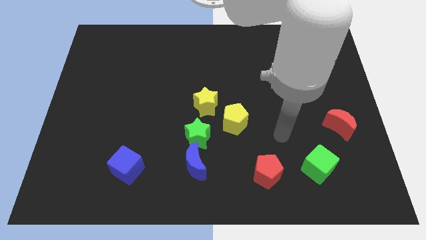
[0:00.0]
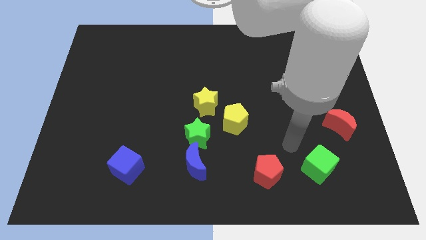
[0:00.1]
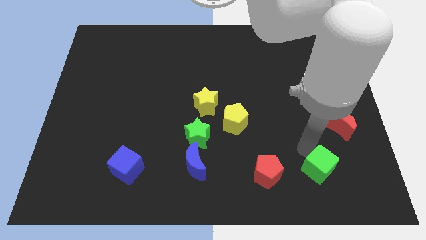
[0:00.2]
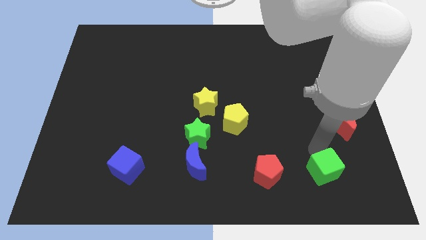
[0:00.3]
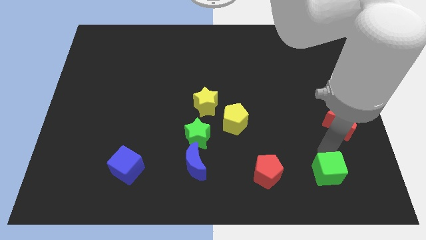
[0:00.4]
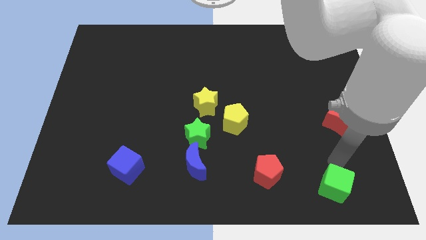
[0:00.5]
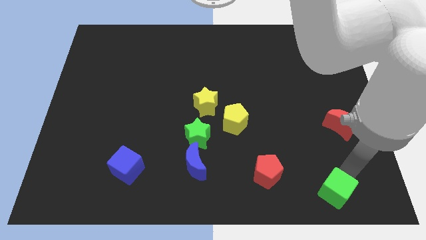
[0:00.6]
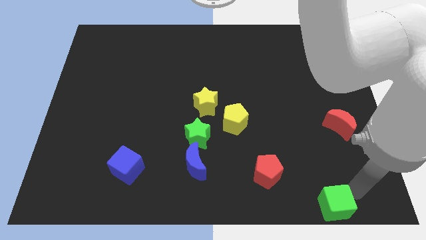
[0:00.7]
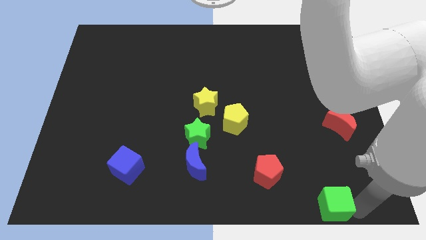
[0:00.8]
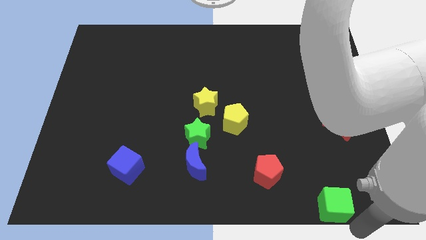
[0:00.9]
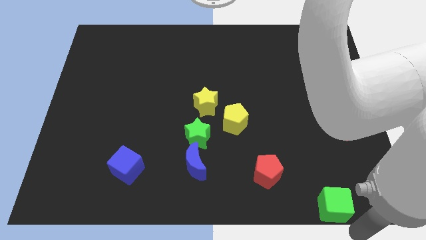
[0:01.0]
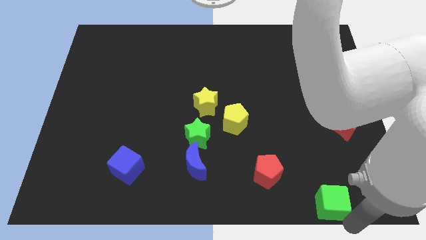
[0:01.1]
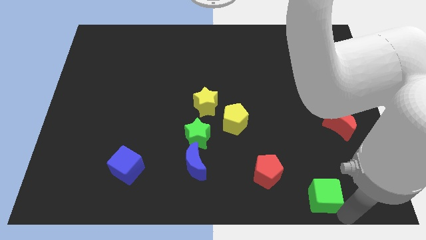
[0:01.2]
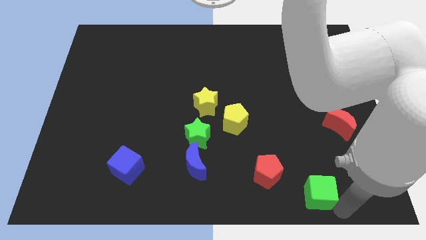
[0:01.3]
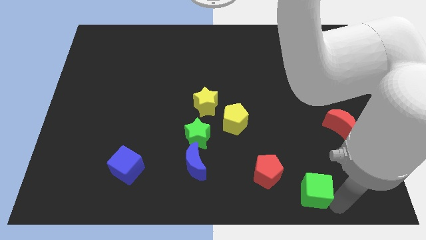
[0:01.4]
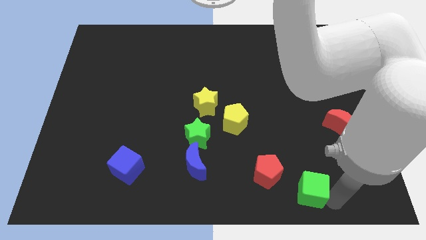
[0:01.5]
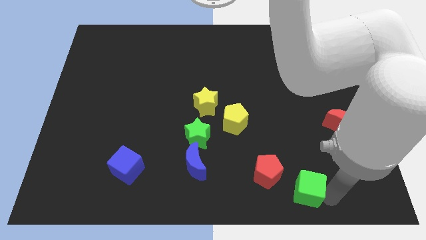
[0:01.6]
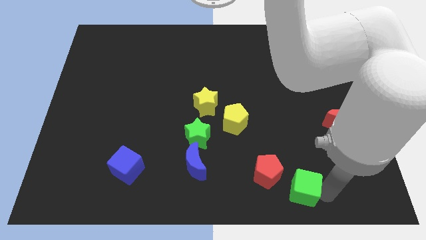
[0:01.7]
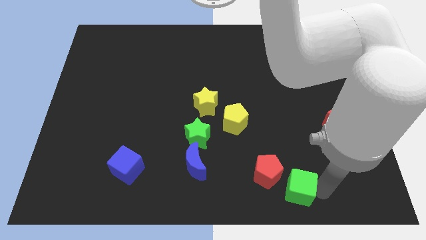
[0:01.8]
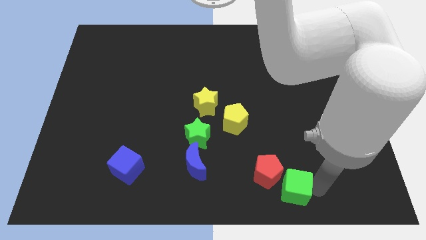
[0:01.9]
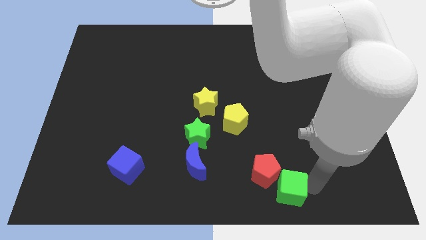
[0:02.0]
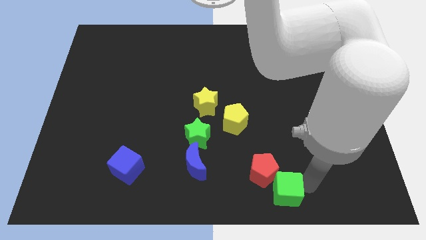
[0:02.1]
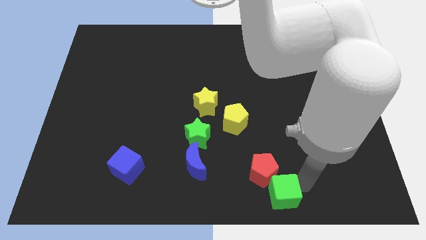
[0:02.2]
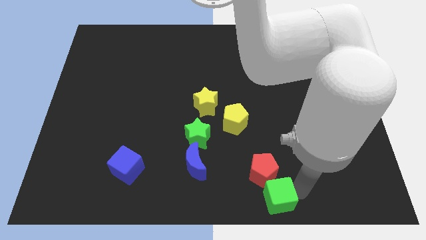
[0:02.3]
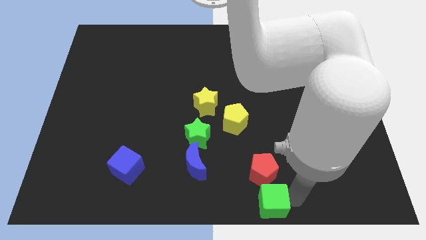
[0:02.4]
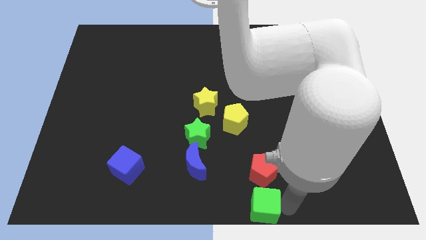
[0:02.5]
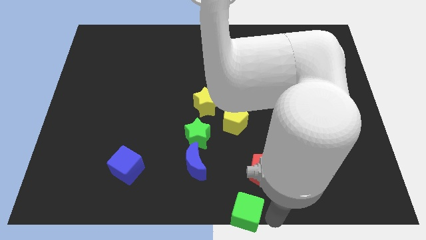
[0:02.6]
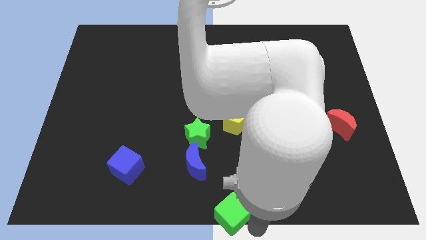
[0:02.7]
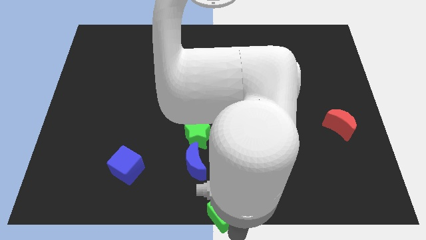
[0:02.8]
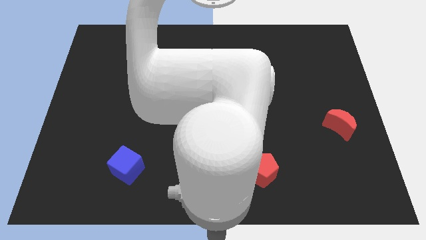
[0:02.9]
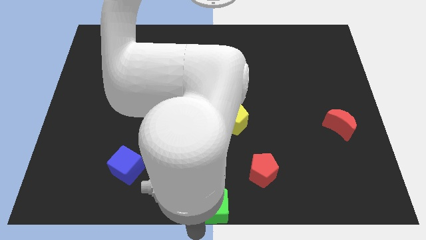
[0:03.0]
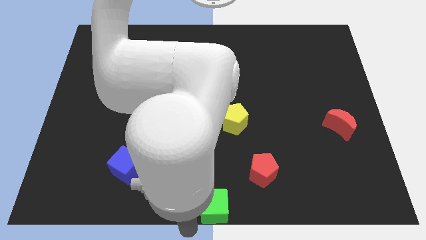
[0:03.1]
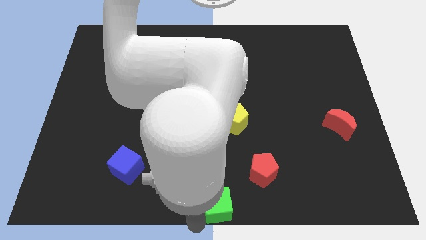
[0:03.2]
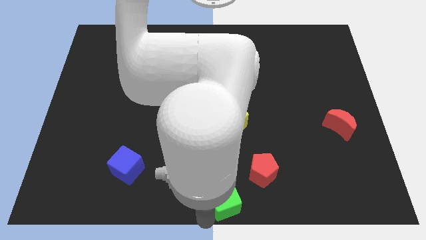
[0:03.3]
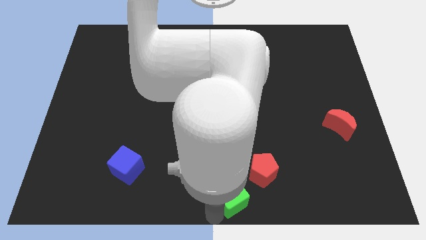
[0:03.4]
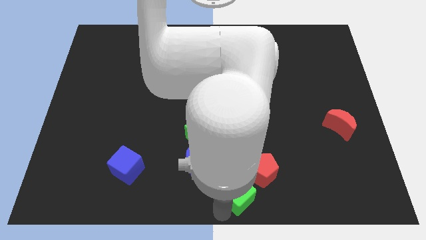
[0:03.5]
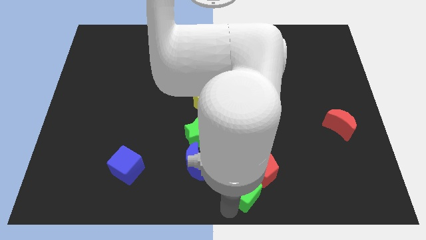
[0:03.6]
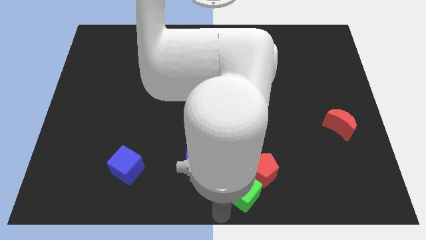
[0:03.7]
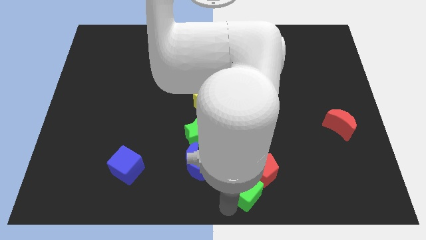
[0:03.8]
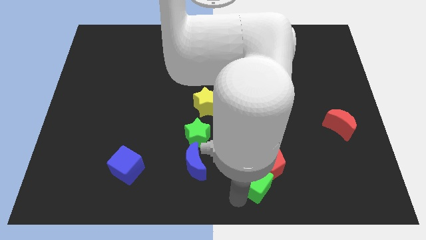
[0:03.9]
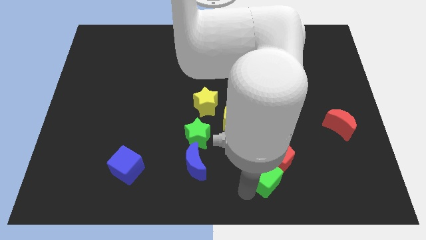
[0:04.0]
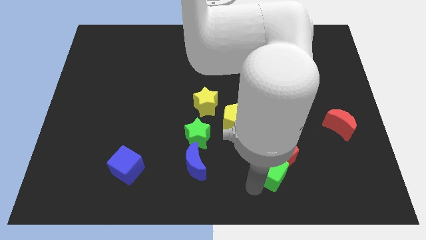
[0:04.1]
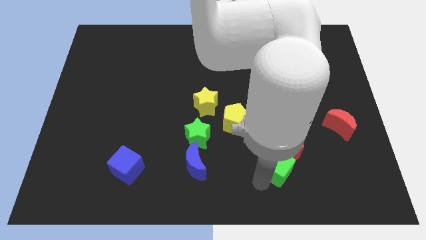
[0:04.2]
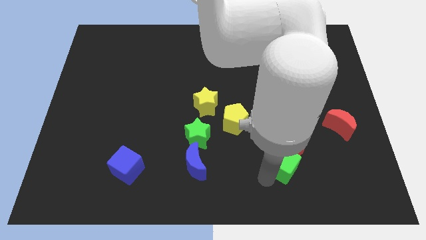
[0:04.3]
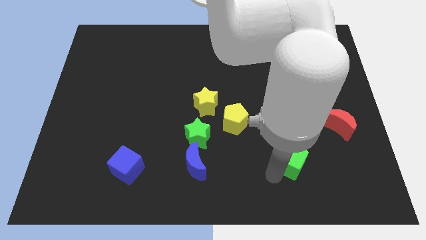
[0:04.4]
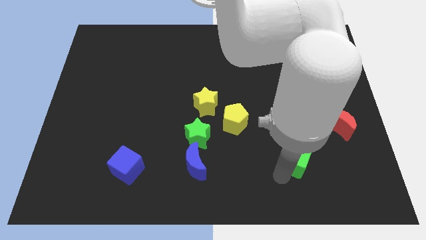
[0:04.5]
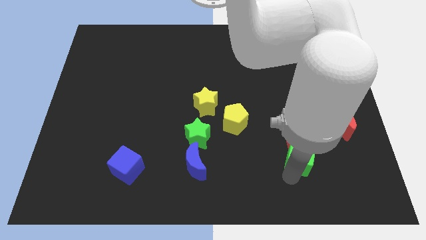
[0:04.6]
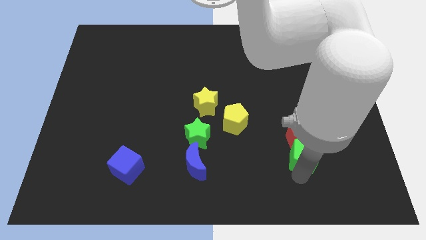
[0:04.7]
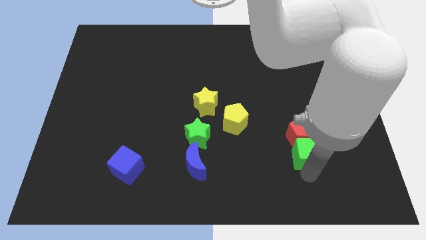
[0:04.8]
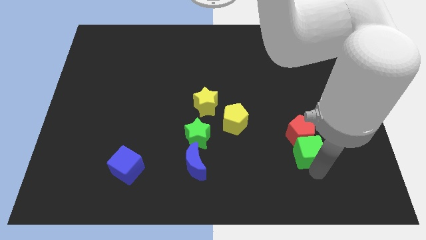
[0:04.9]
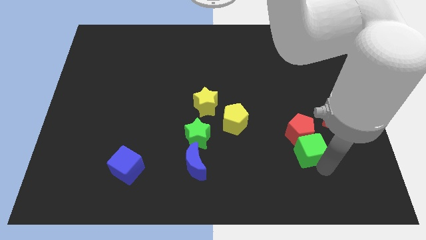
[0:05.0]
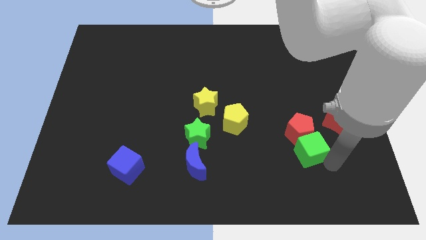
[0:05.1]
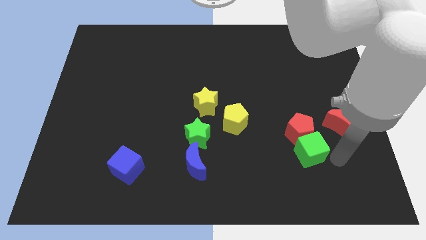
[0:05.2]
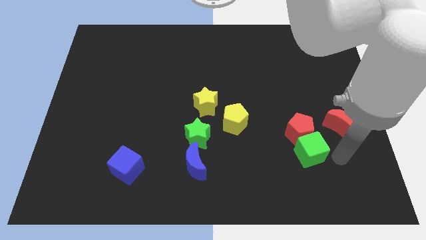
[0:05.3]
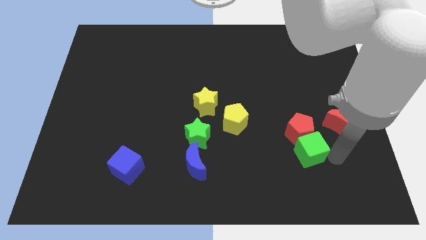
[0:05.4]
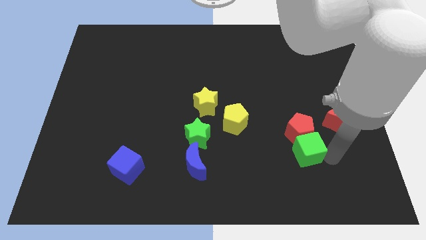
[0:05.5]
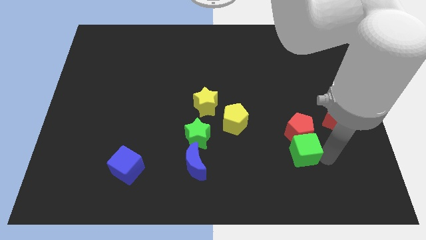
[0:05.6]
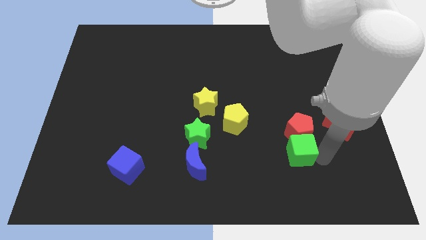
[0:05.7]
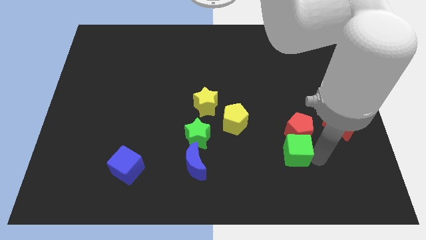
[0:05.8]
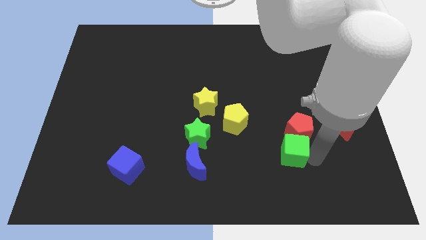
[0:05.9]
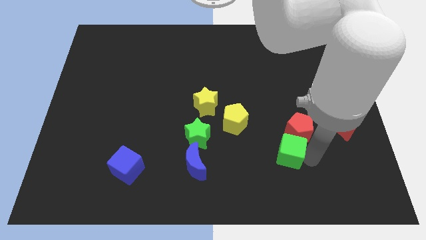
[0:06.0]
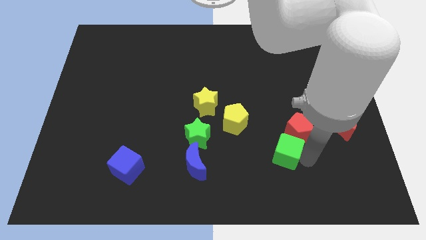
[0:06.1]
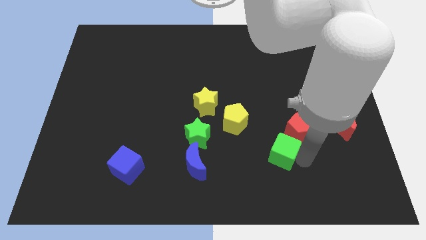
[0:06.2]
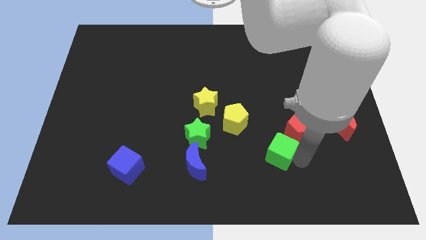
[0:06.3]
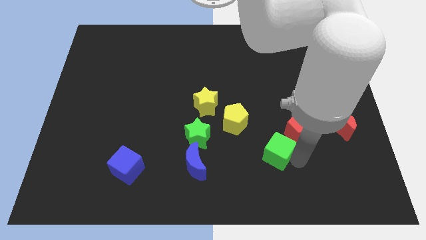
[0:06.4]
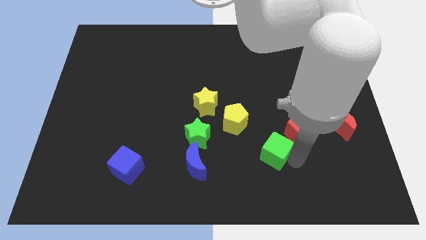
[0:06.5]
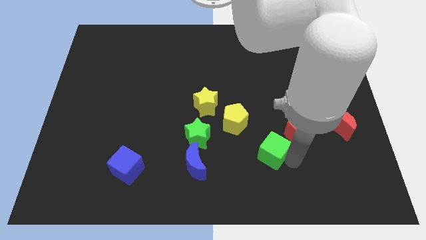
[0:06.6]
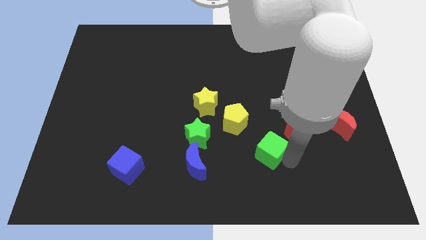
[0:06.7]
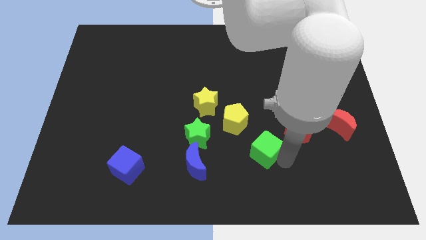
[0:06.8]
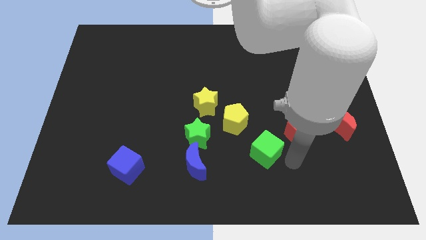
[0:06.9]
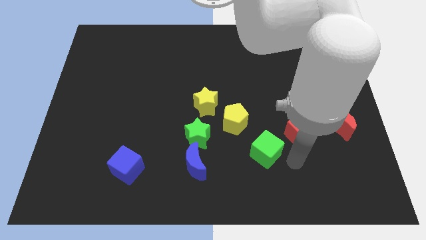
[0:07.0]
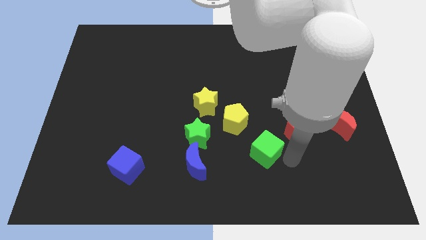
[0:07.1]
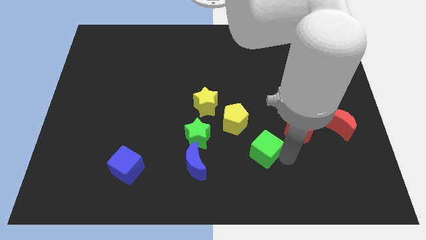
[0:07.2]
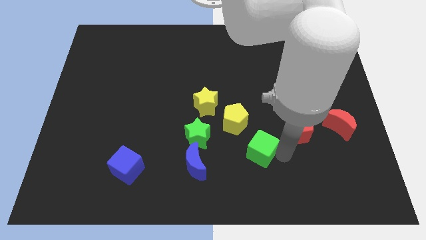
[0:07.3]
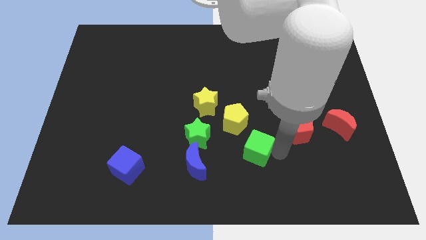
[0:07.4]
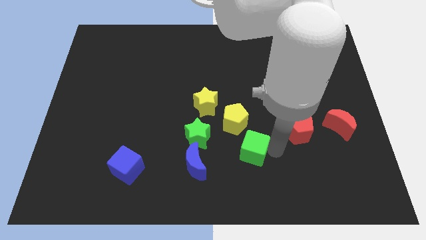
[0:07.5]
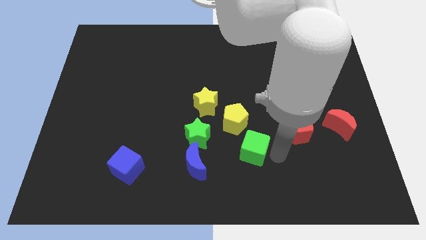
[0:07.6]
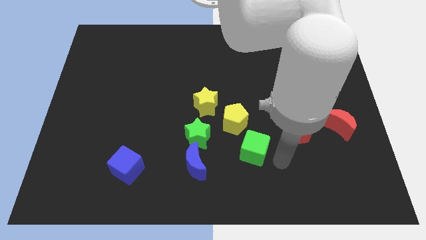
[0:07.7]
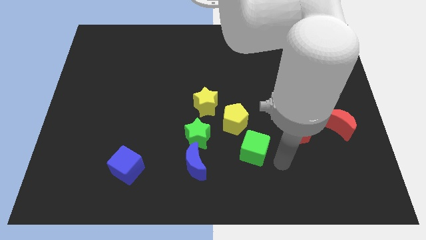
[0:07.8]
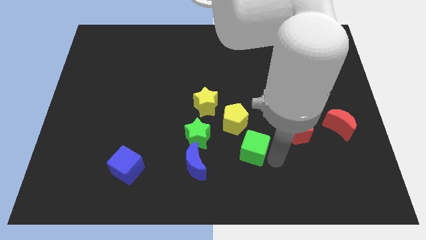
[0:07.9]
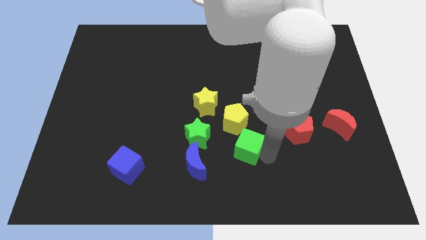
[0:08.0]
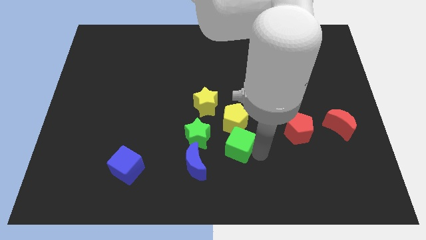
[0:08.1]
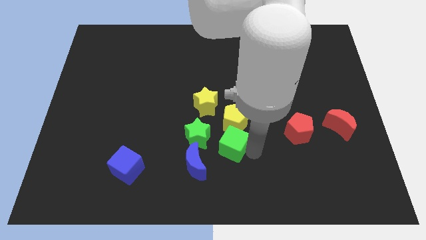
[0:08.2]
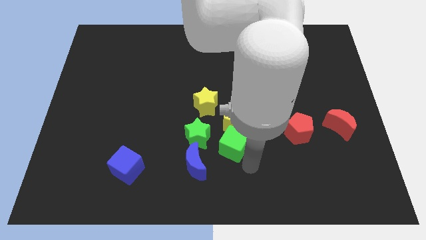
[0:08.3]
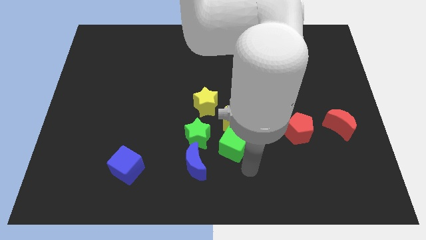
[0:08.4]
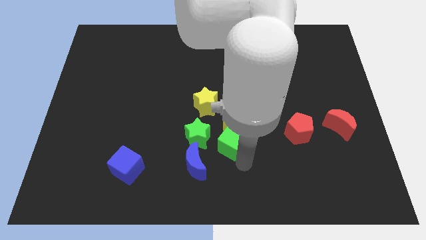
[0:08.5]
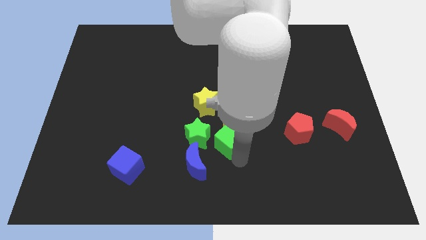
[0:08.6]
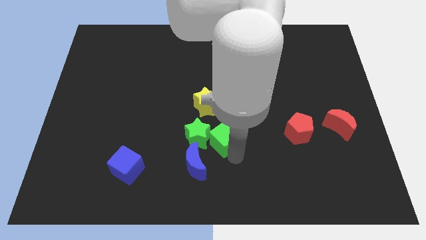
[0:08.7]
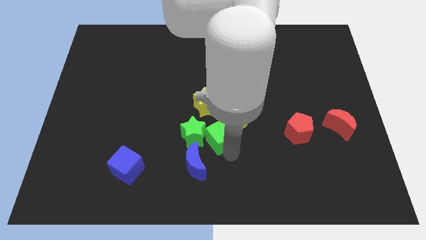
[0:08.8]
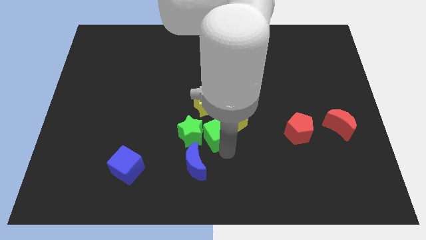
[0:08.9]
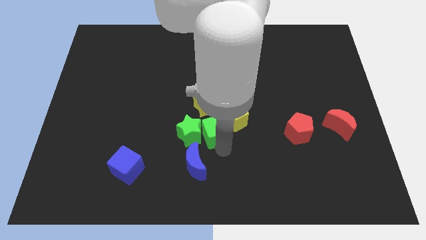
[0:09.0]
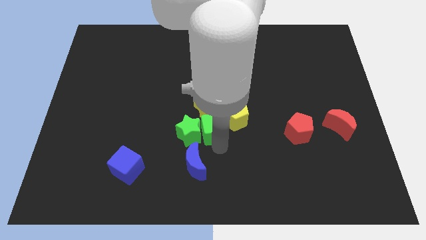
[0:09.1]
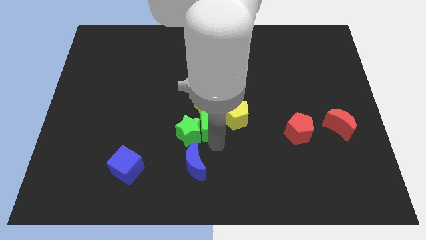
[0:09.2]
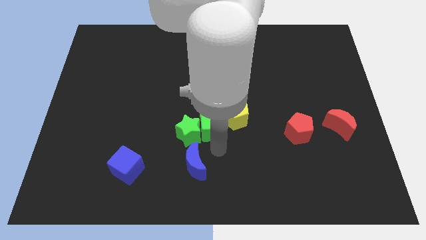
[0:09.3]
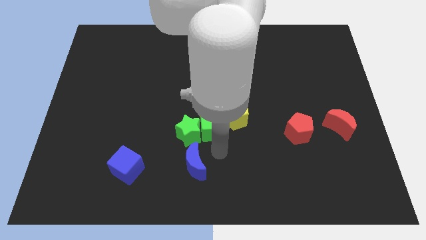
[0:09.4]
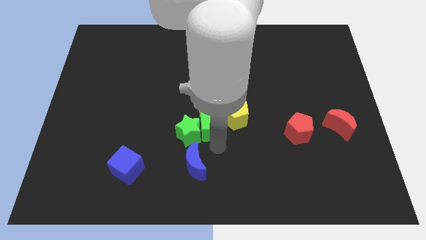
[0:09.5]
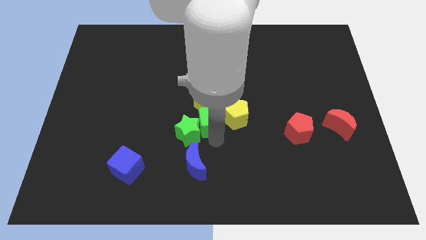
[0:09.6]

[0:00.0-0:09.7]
put the green cube close to the yellow star
